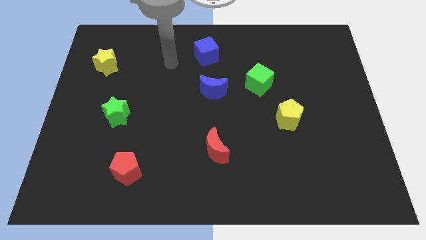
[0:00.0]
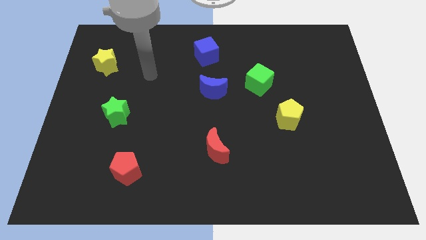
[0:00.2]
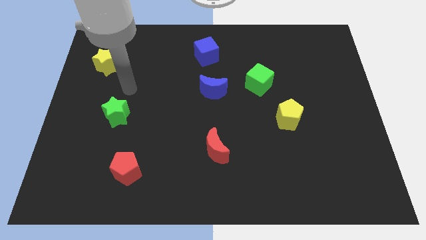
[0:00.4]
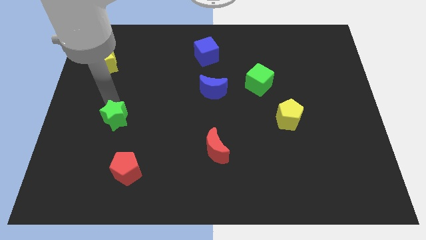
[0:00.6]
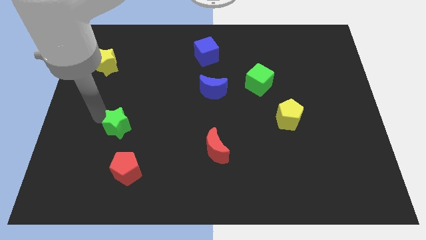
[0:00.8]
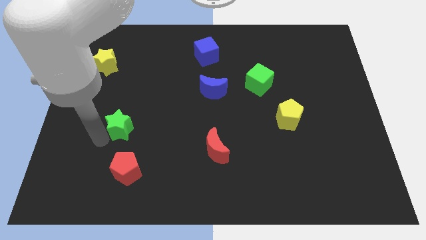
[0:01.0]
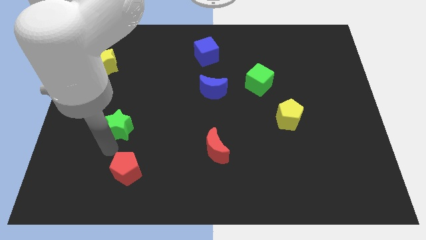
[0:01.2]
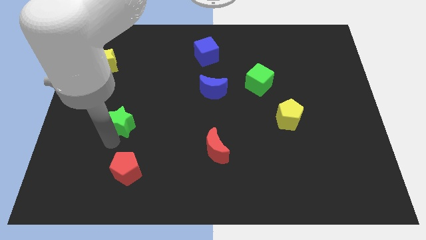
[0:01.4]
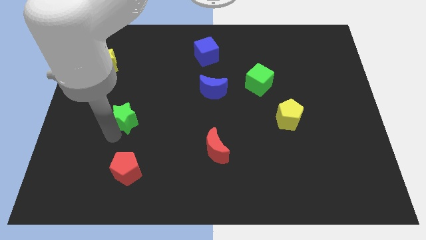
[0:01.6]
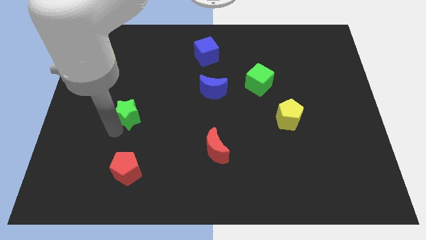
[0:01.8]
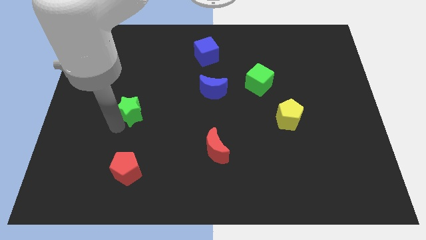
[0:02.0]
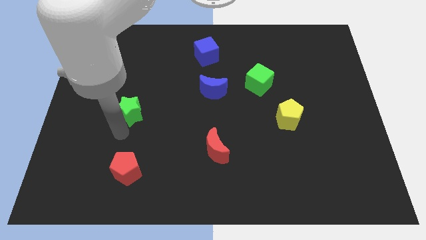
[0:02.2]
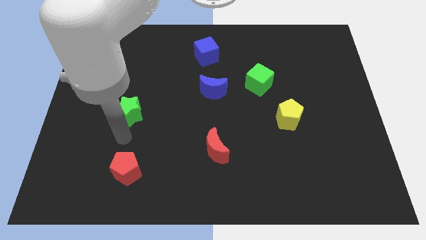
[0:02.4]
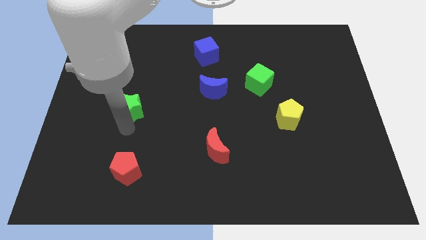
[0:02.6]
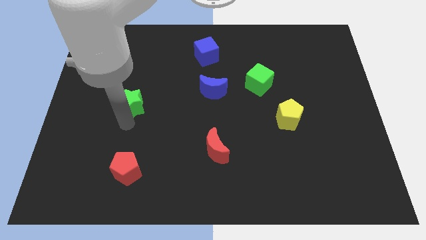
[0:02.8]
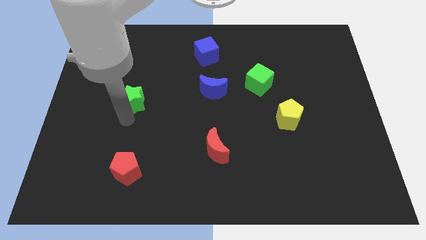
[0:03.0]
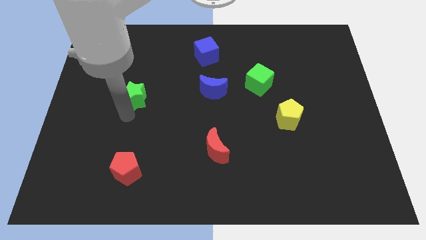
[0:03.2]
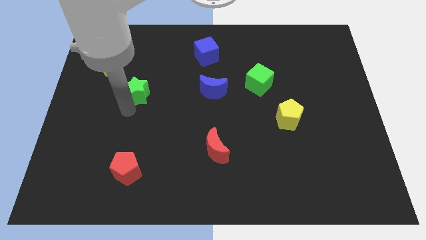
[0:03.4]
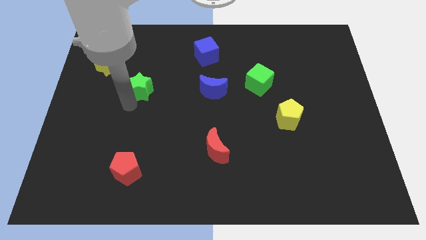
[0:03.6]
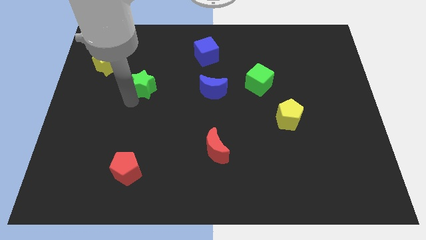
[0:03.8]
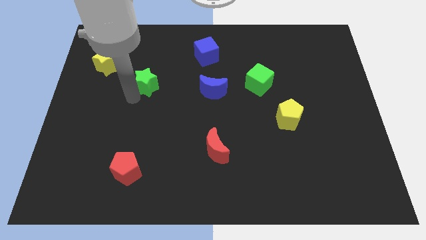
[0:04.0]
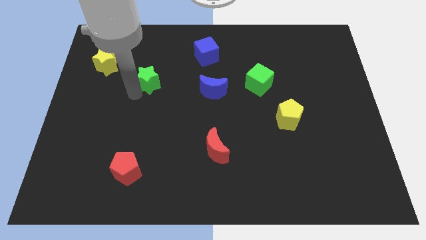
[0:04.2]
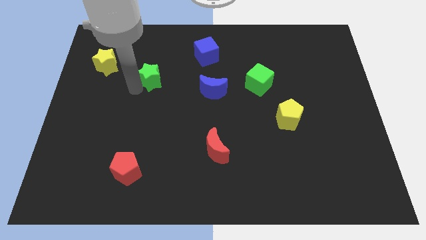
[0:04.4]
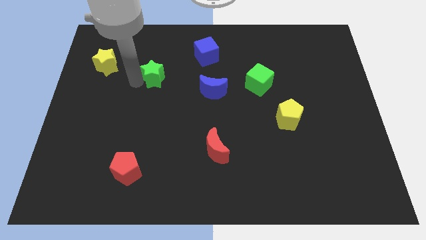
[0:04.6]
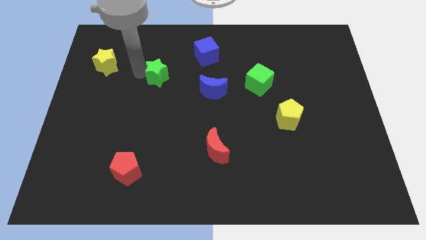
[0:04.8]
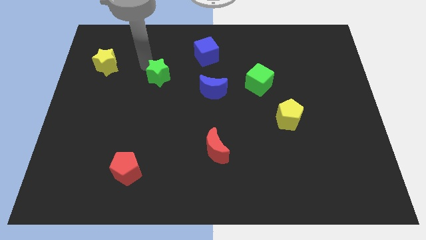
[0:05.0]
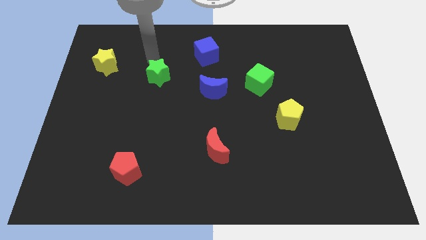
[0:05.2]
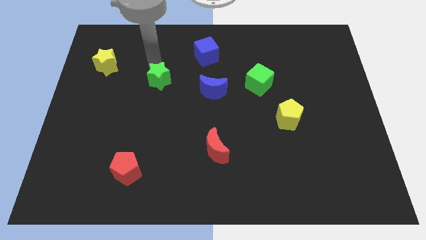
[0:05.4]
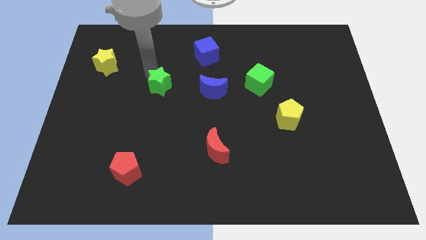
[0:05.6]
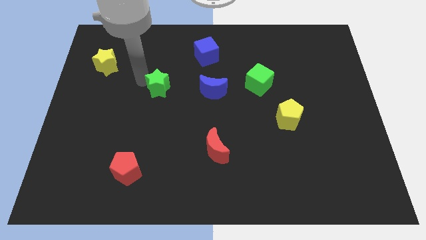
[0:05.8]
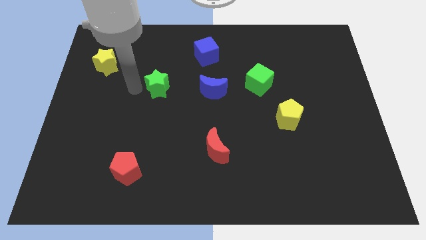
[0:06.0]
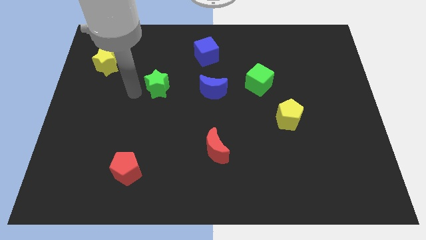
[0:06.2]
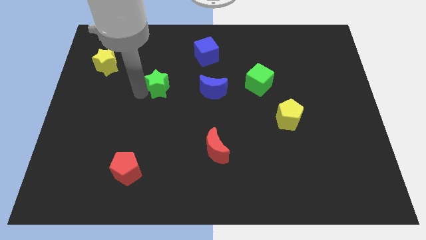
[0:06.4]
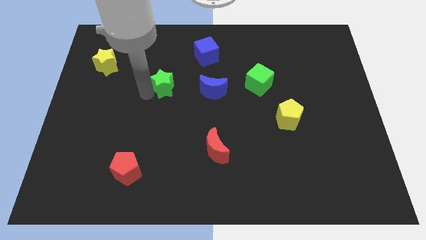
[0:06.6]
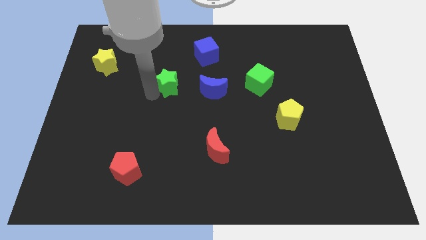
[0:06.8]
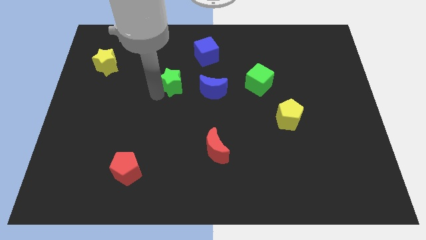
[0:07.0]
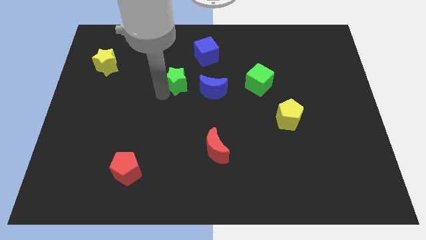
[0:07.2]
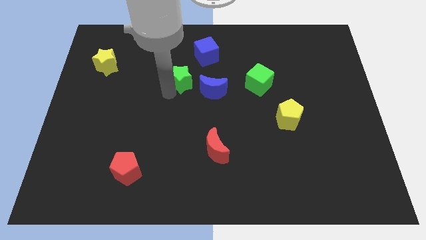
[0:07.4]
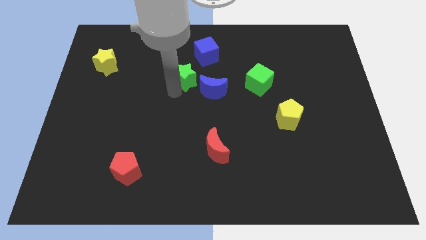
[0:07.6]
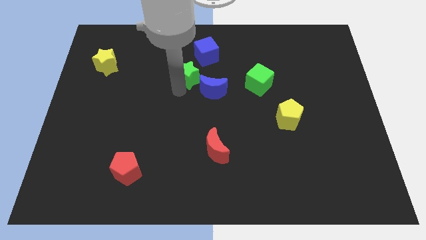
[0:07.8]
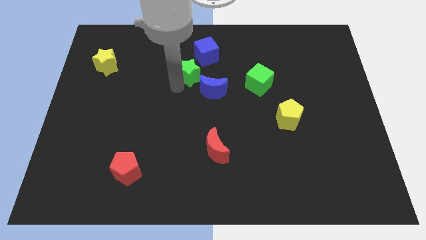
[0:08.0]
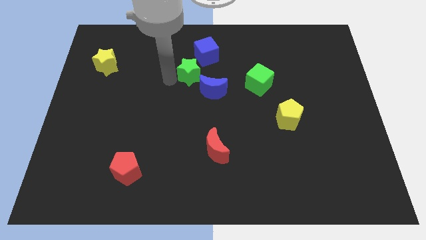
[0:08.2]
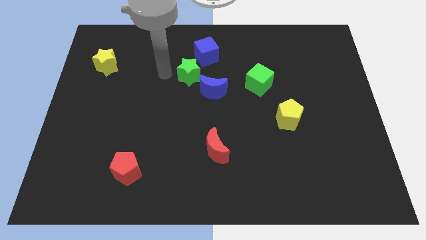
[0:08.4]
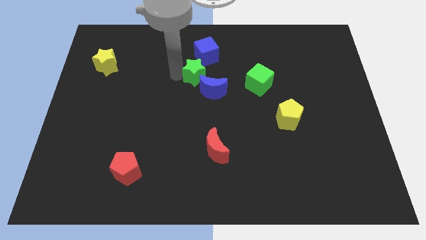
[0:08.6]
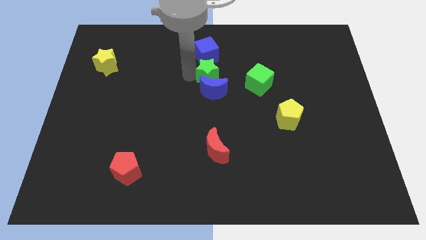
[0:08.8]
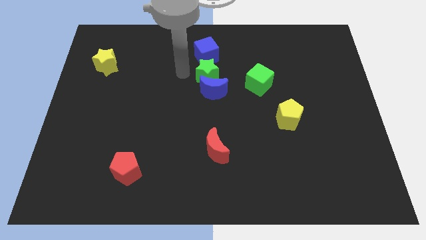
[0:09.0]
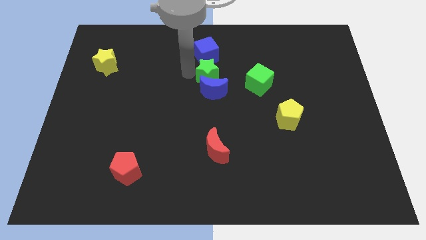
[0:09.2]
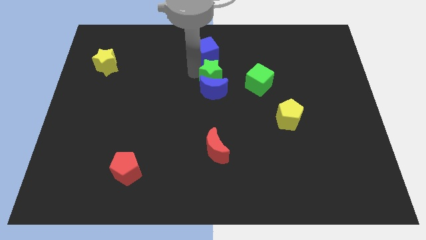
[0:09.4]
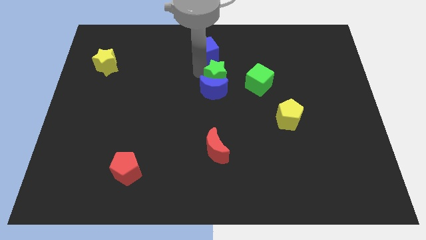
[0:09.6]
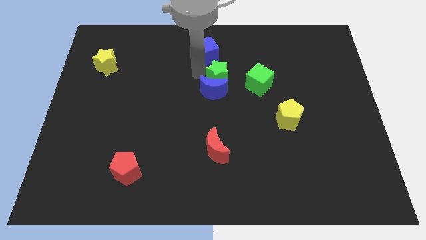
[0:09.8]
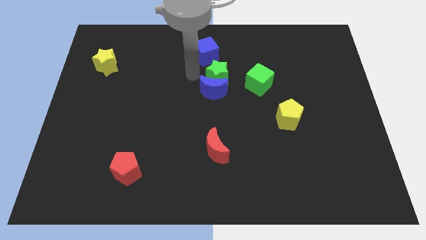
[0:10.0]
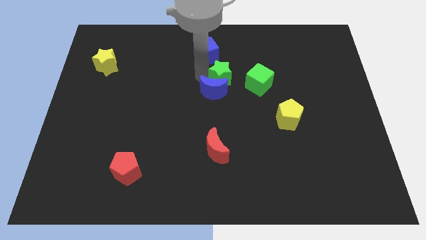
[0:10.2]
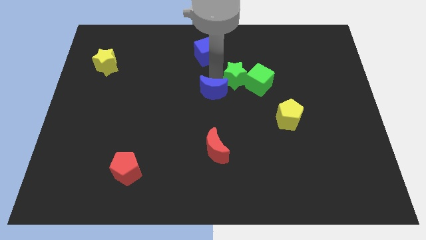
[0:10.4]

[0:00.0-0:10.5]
push the green star to the green cube

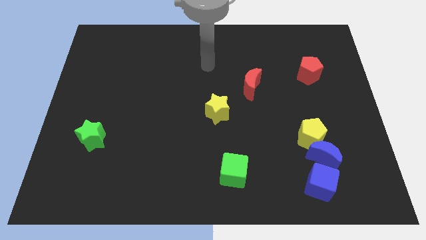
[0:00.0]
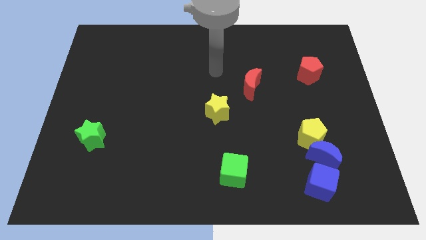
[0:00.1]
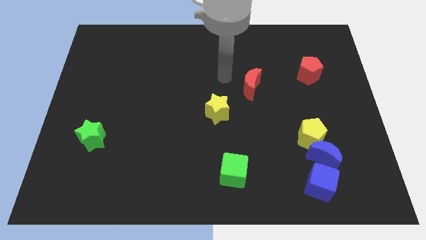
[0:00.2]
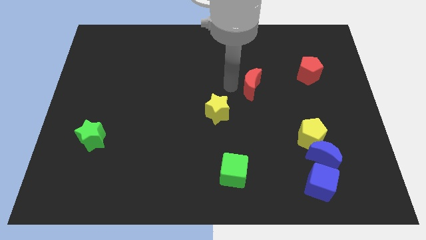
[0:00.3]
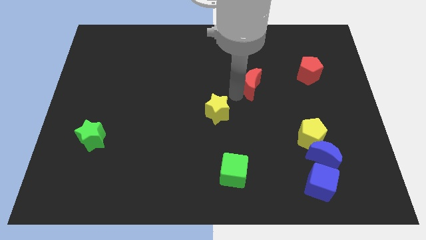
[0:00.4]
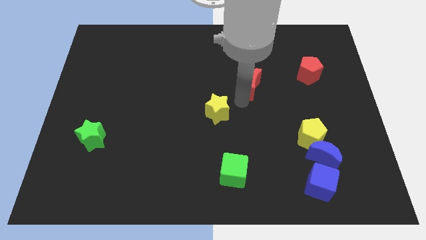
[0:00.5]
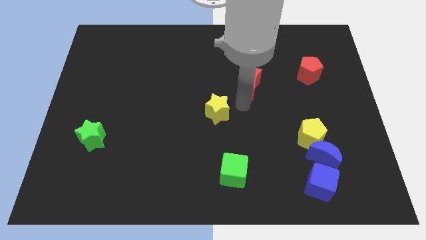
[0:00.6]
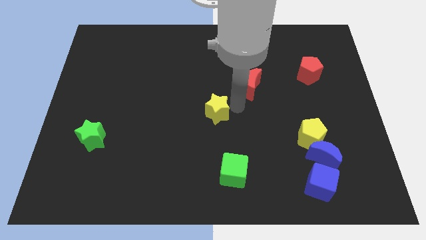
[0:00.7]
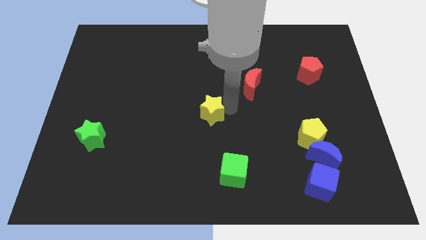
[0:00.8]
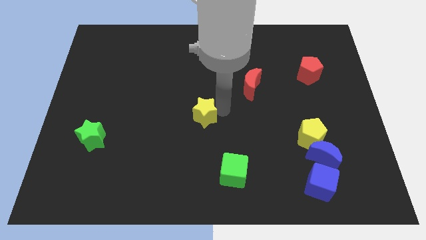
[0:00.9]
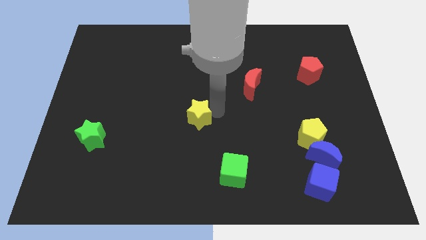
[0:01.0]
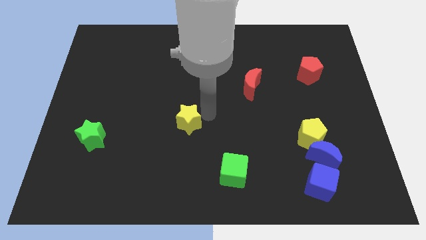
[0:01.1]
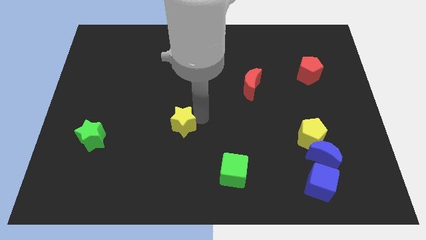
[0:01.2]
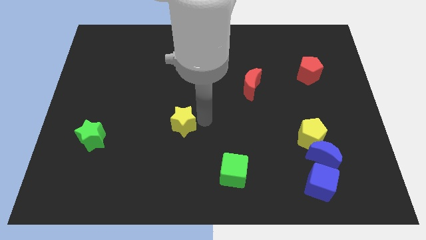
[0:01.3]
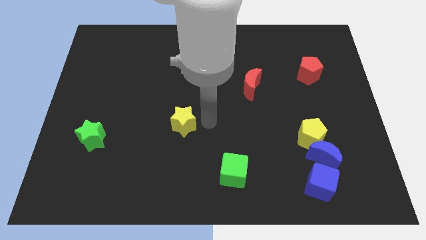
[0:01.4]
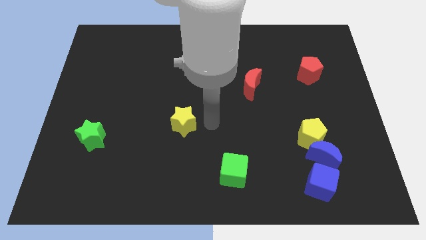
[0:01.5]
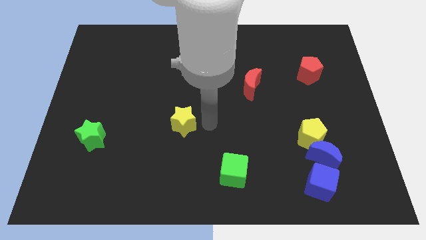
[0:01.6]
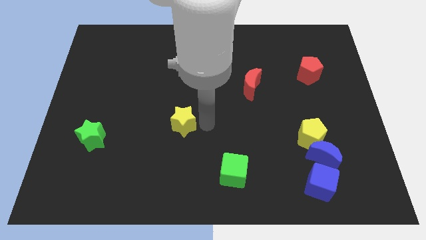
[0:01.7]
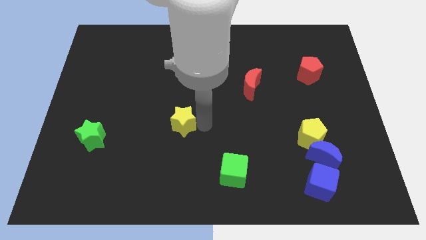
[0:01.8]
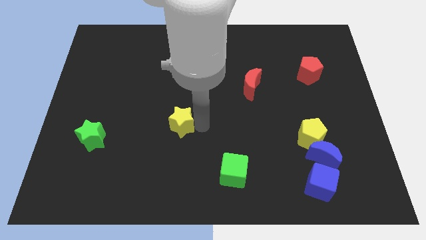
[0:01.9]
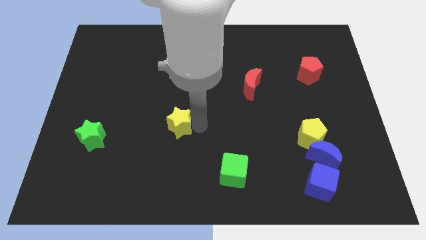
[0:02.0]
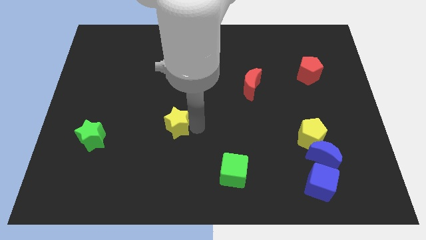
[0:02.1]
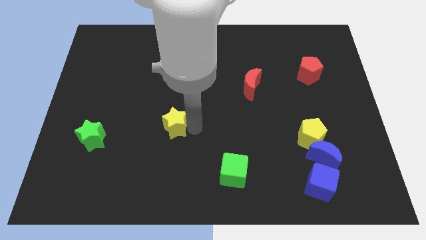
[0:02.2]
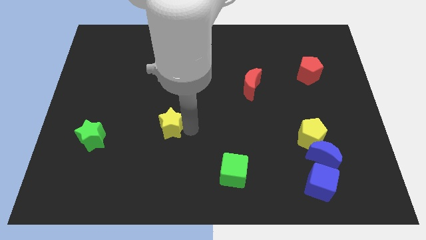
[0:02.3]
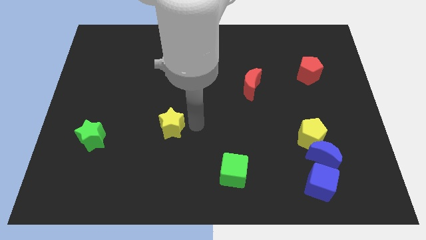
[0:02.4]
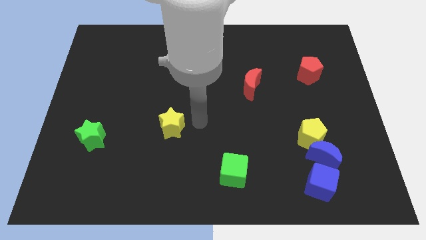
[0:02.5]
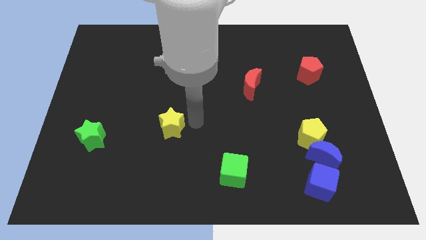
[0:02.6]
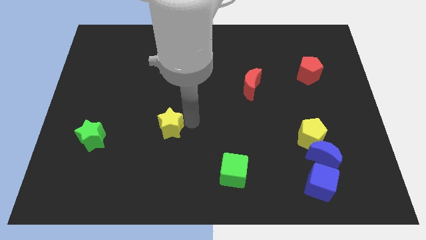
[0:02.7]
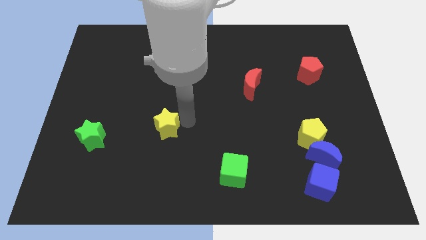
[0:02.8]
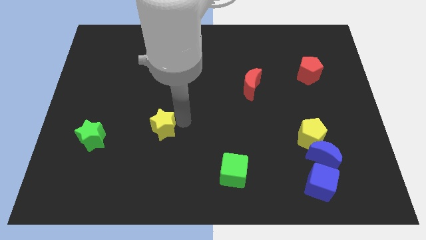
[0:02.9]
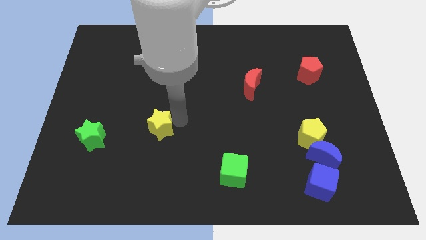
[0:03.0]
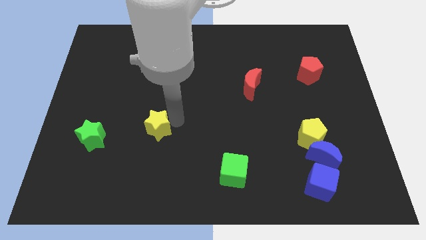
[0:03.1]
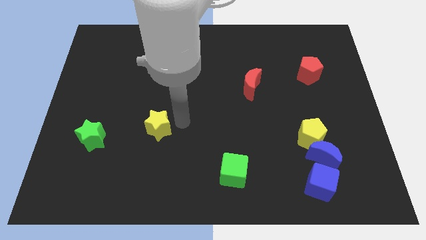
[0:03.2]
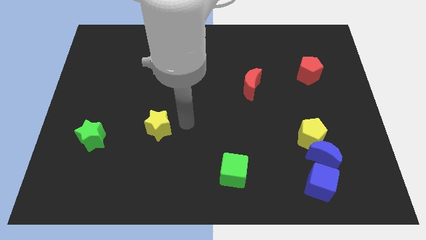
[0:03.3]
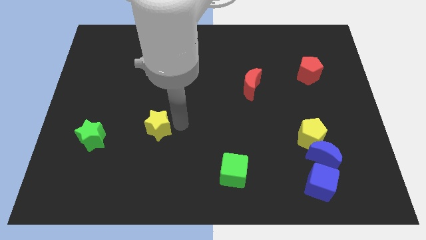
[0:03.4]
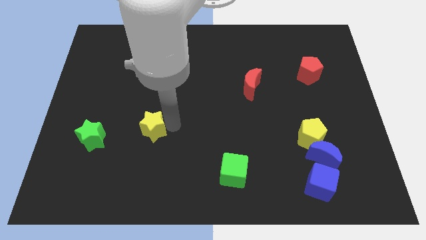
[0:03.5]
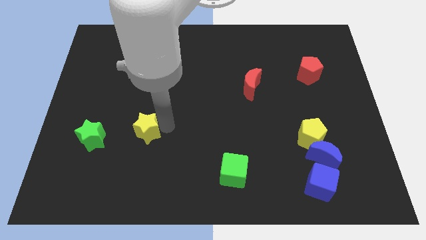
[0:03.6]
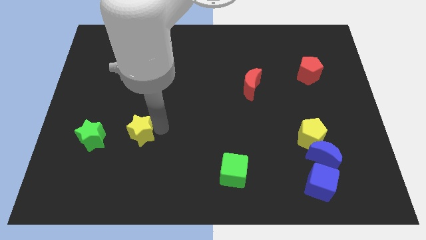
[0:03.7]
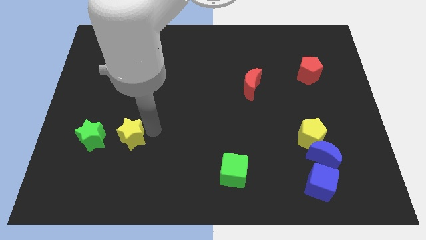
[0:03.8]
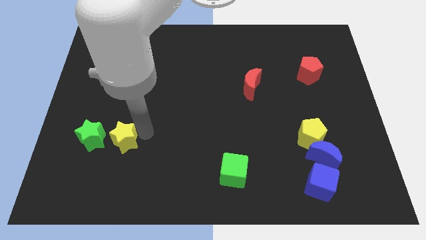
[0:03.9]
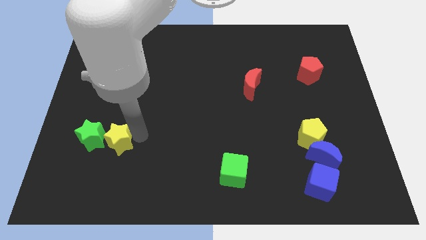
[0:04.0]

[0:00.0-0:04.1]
move the yellow star next to the green star
